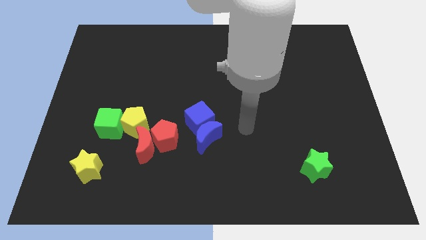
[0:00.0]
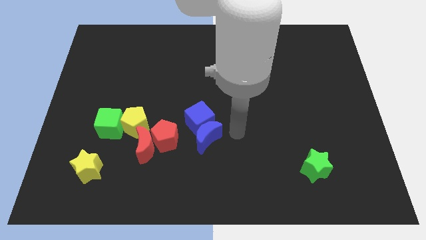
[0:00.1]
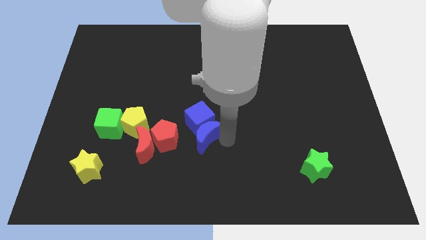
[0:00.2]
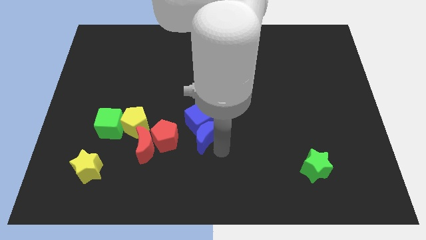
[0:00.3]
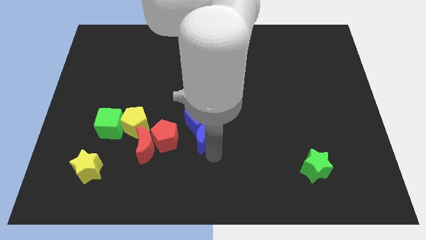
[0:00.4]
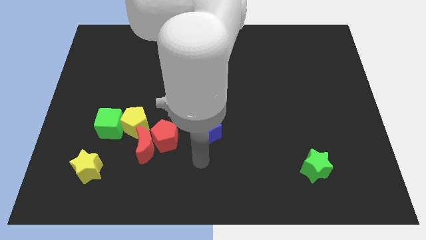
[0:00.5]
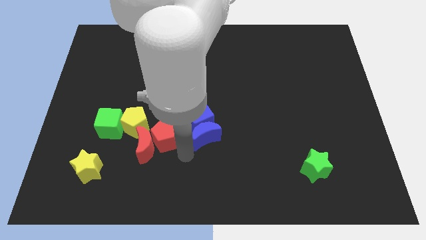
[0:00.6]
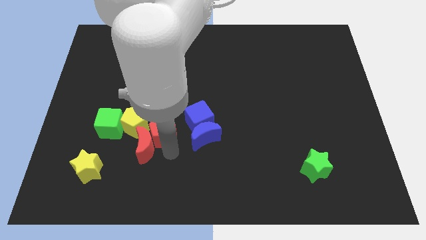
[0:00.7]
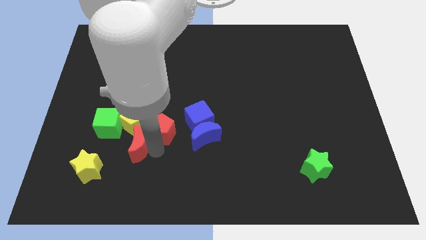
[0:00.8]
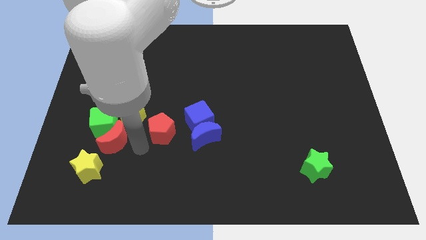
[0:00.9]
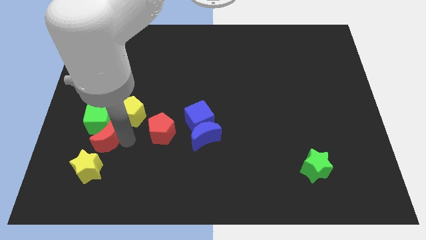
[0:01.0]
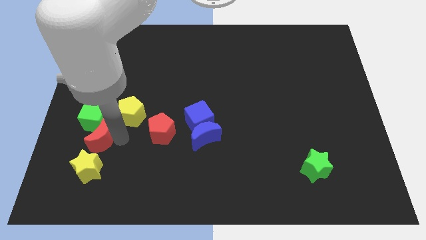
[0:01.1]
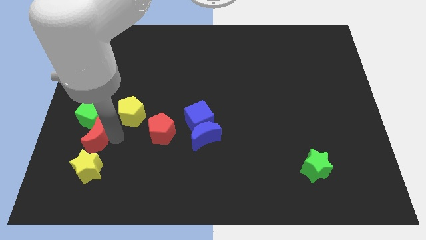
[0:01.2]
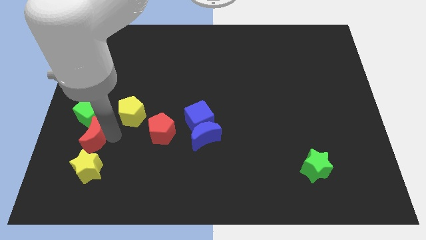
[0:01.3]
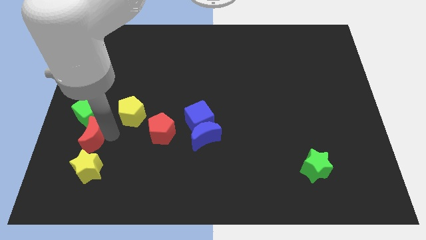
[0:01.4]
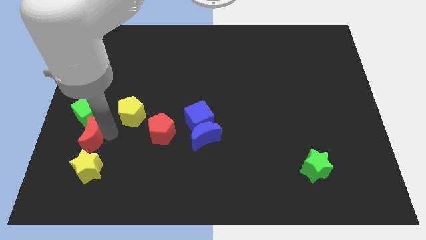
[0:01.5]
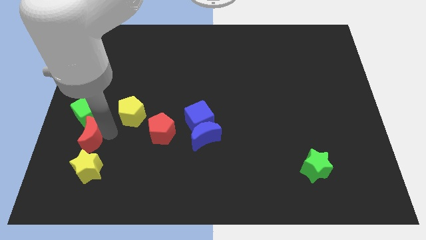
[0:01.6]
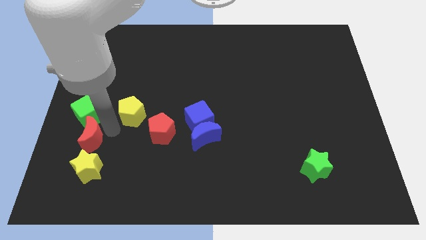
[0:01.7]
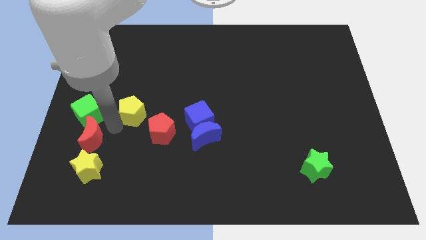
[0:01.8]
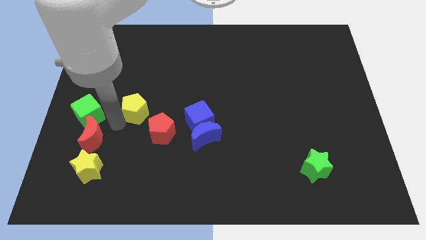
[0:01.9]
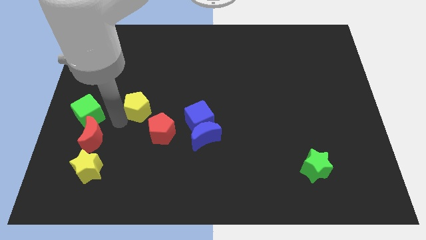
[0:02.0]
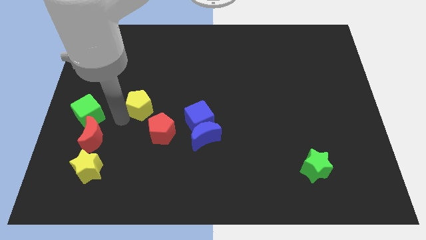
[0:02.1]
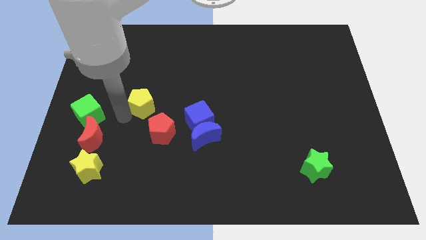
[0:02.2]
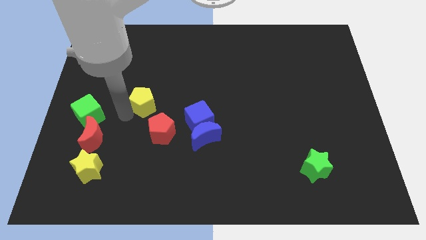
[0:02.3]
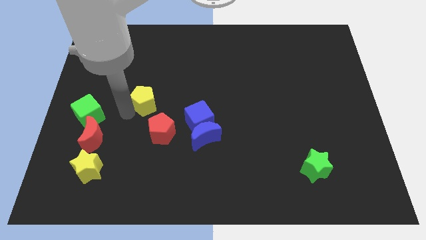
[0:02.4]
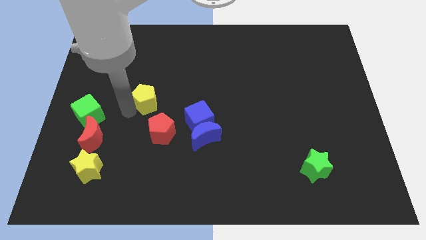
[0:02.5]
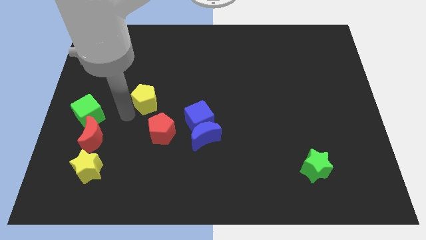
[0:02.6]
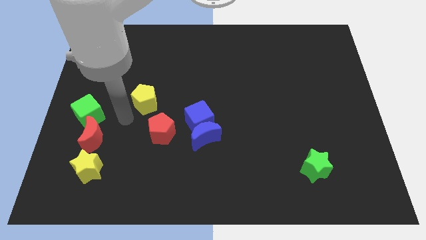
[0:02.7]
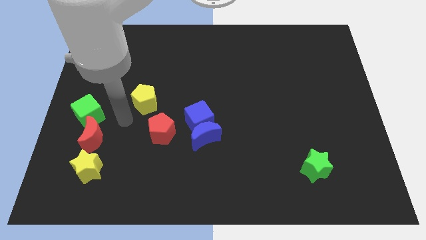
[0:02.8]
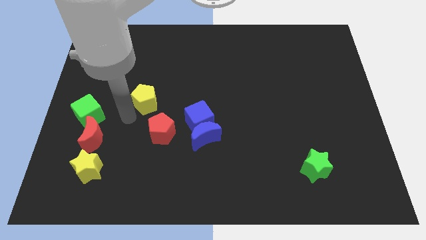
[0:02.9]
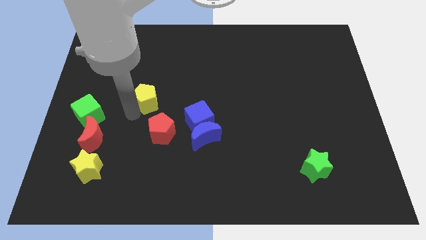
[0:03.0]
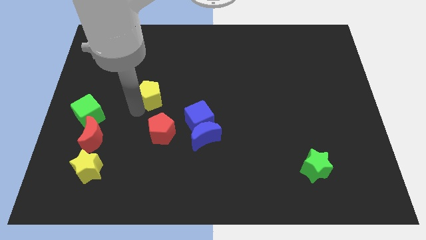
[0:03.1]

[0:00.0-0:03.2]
move the yellow pentagon away from the green cube, red moon, and red pentagon

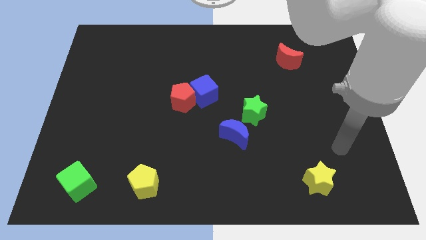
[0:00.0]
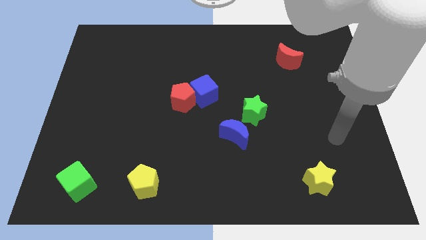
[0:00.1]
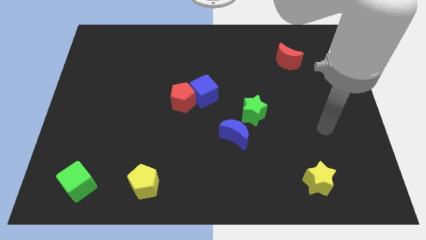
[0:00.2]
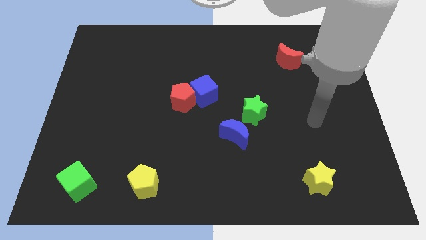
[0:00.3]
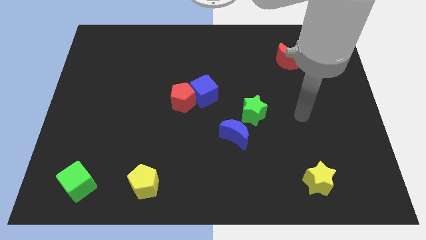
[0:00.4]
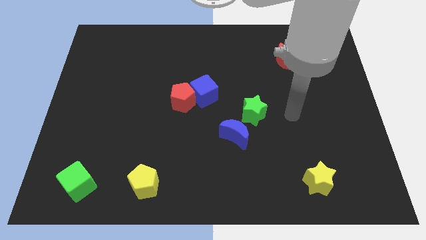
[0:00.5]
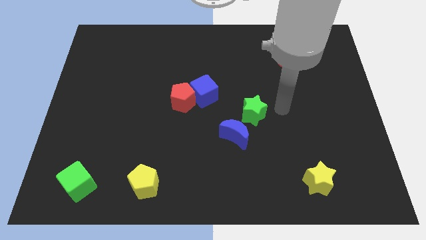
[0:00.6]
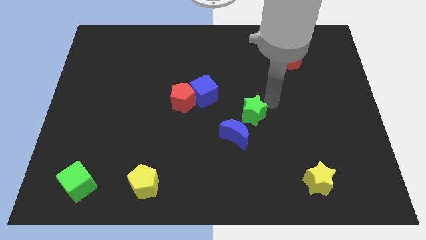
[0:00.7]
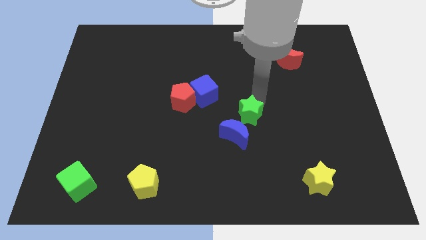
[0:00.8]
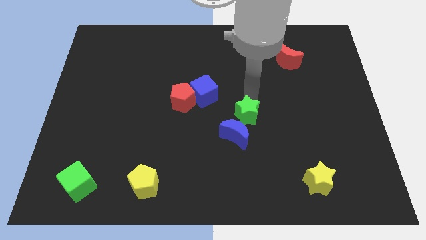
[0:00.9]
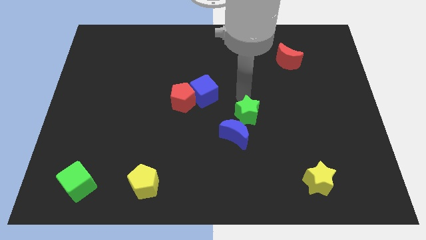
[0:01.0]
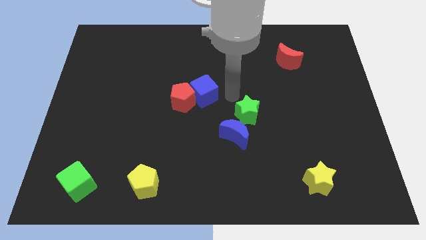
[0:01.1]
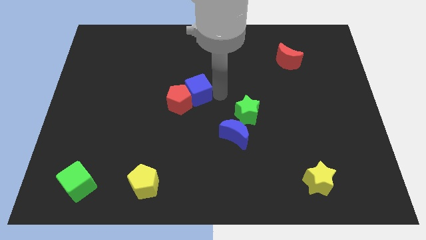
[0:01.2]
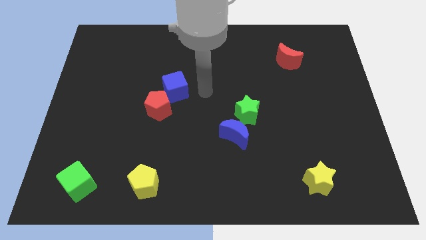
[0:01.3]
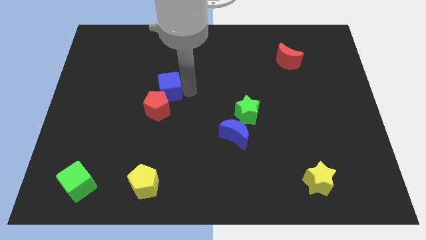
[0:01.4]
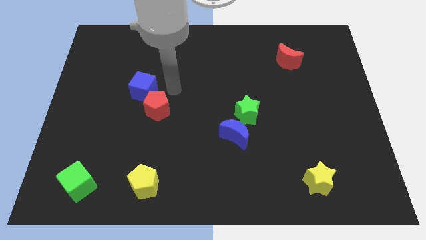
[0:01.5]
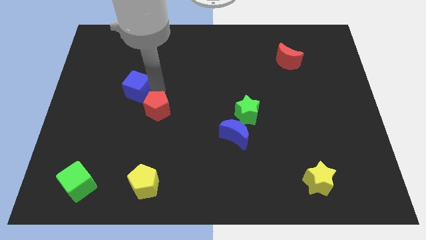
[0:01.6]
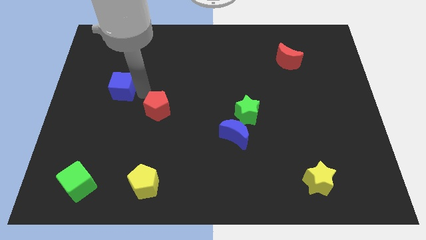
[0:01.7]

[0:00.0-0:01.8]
separate the red pentagon from the blue cube

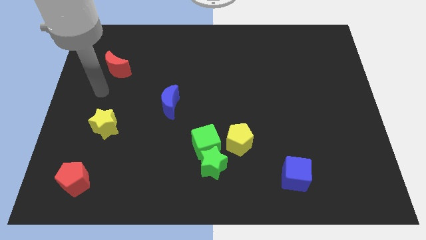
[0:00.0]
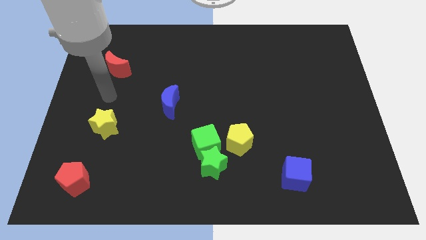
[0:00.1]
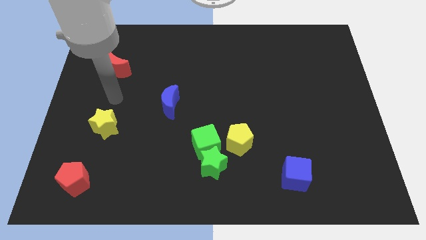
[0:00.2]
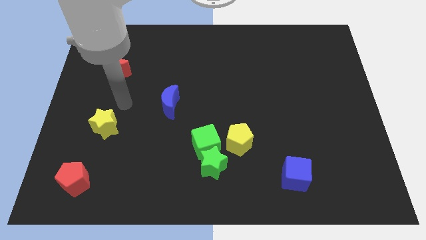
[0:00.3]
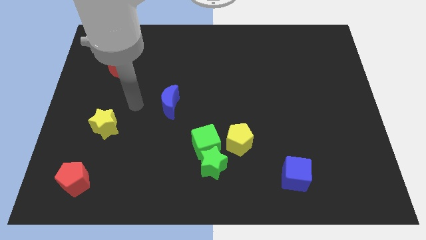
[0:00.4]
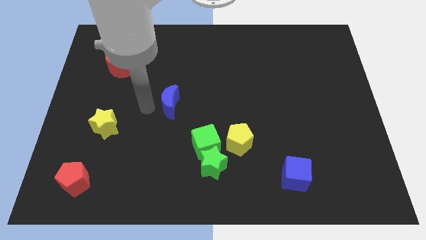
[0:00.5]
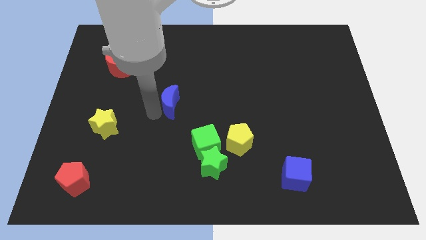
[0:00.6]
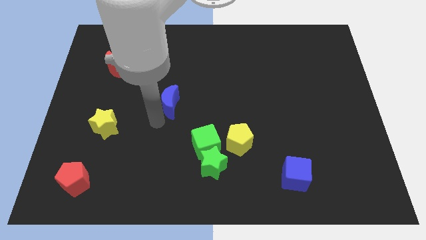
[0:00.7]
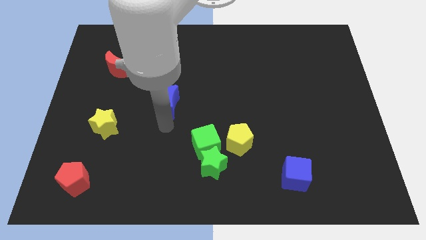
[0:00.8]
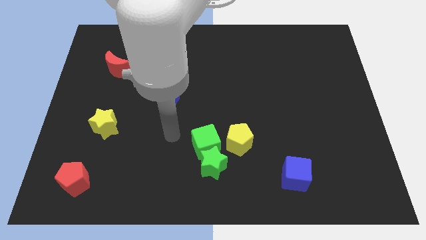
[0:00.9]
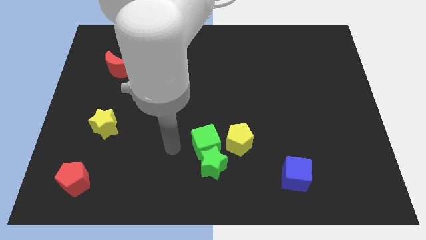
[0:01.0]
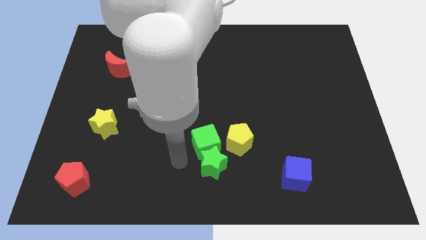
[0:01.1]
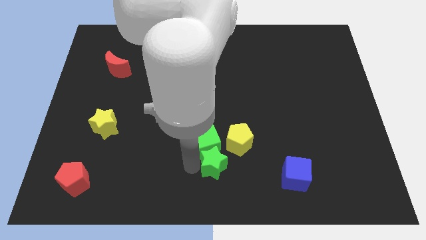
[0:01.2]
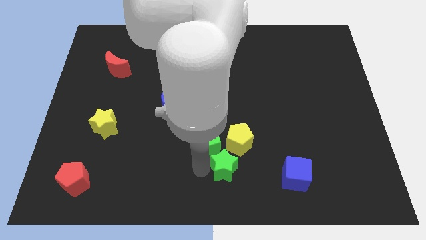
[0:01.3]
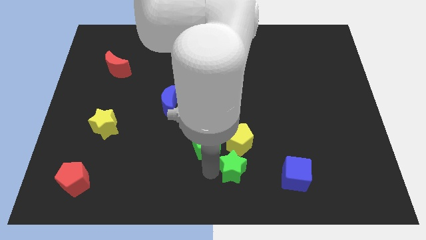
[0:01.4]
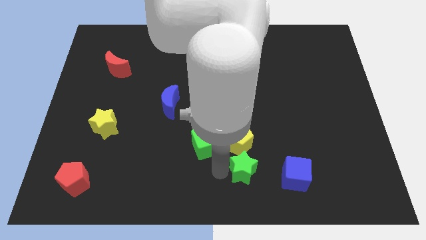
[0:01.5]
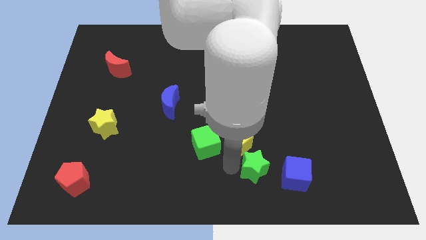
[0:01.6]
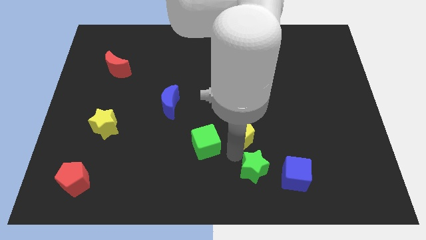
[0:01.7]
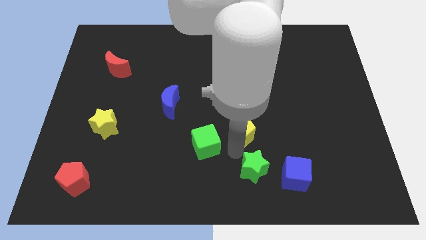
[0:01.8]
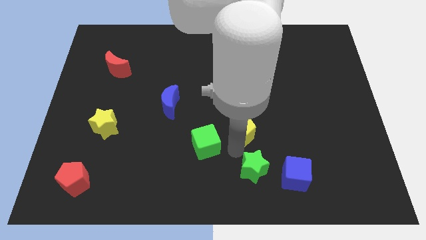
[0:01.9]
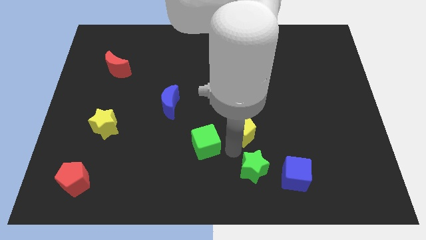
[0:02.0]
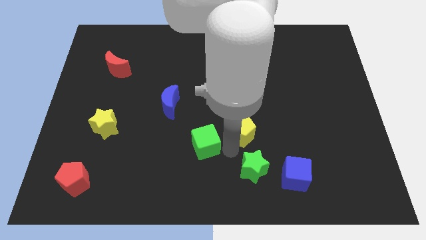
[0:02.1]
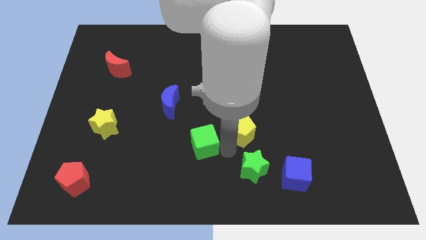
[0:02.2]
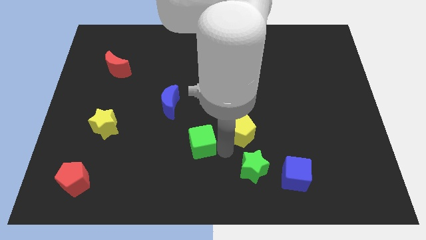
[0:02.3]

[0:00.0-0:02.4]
separate the green cube from the green star and yellow pentagon

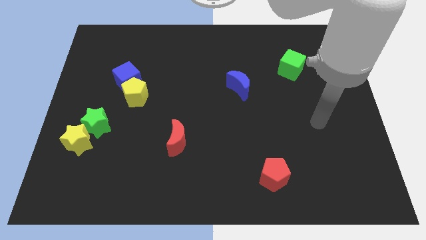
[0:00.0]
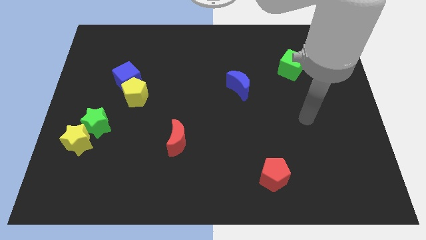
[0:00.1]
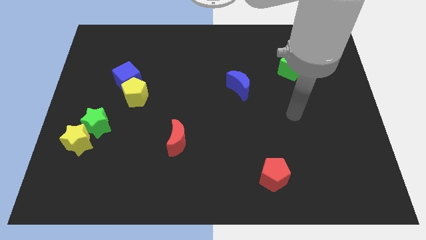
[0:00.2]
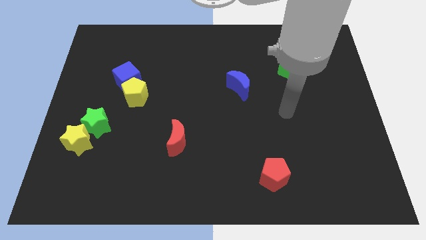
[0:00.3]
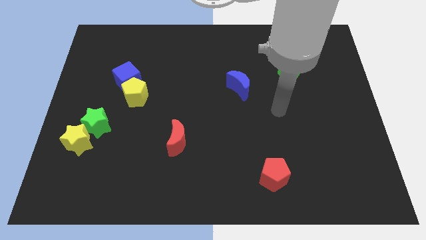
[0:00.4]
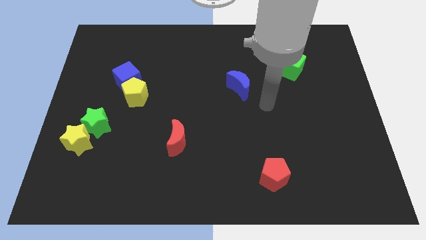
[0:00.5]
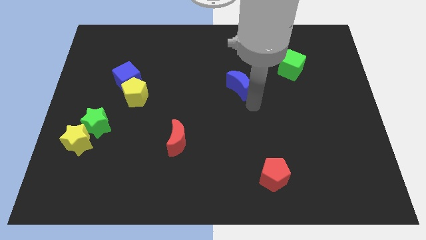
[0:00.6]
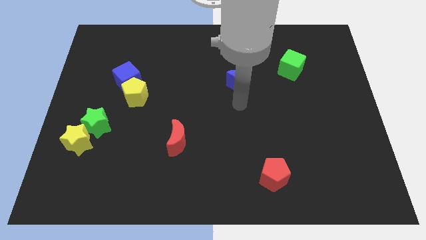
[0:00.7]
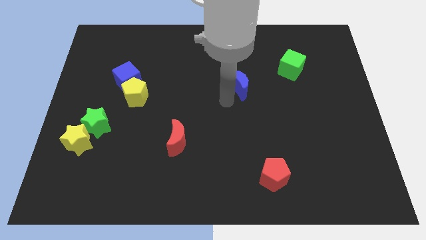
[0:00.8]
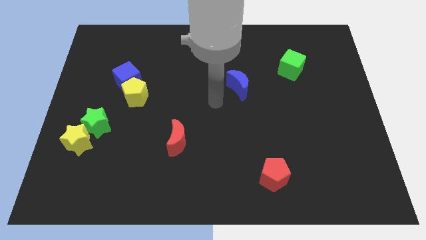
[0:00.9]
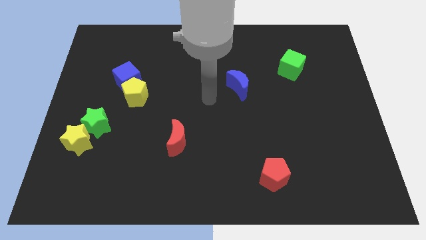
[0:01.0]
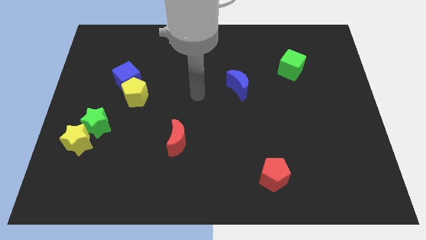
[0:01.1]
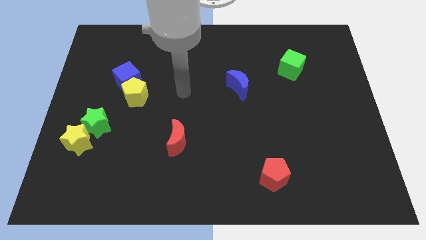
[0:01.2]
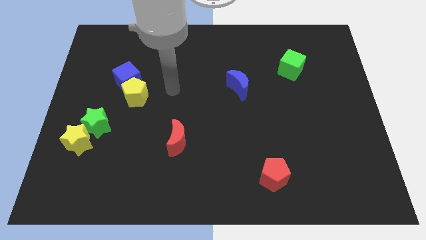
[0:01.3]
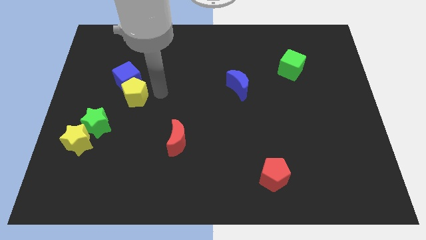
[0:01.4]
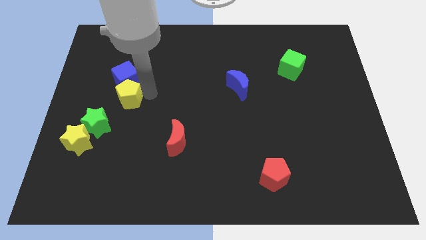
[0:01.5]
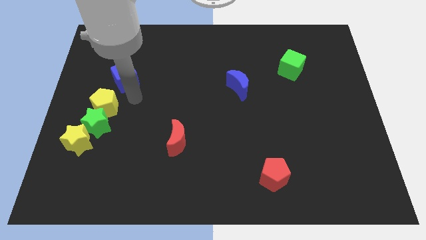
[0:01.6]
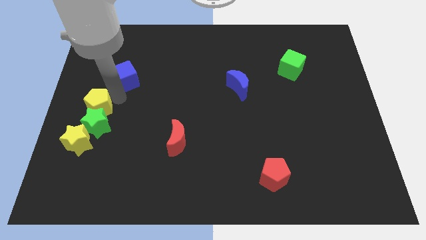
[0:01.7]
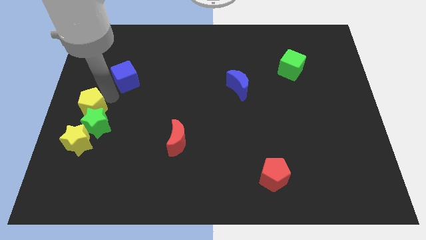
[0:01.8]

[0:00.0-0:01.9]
move the blue cube away from the yellow pentagon

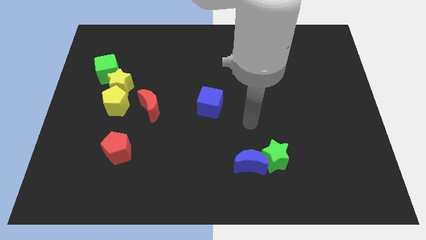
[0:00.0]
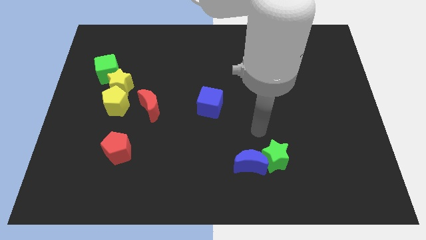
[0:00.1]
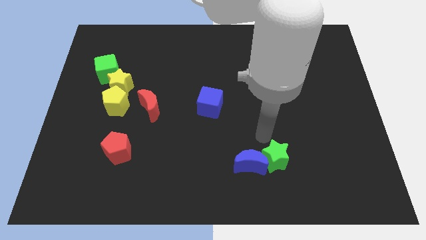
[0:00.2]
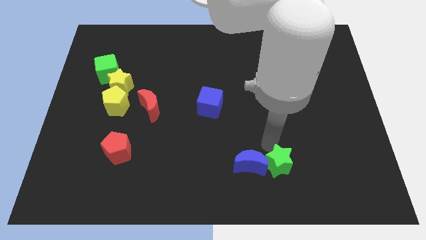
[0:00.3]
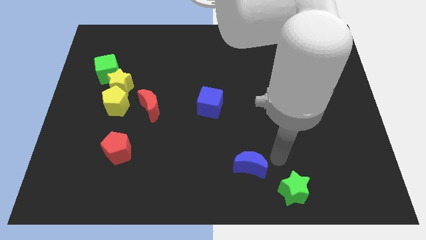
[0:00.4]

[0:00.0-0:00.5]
separate the blue moon from the green star
